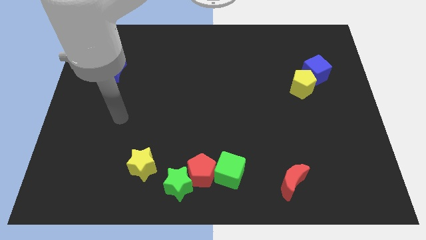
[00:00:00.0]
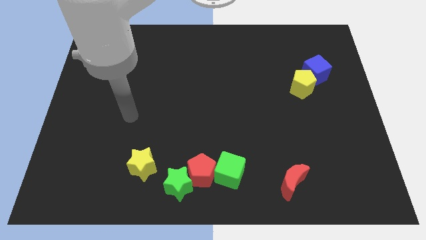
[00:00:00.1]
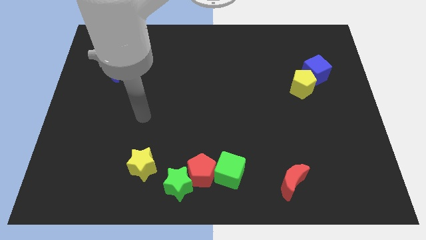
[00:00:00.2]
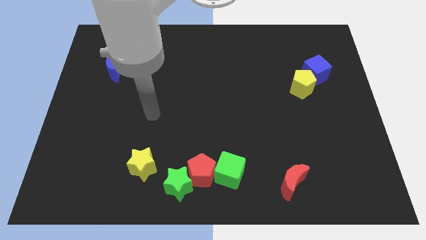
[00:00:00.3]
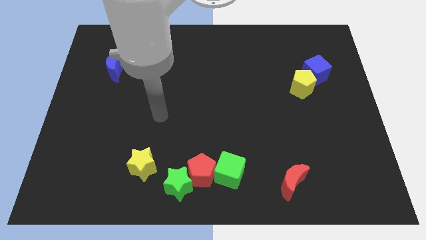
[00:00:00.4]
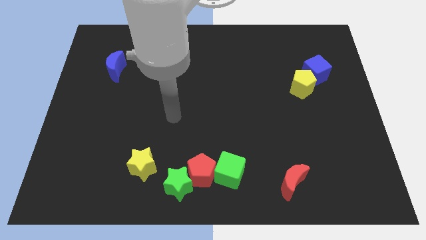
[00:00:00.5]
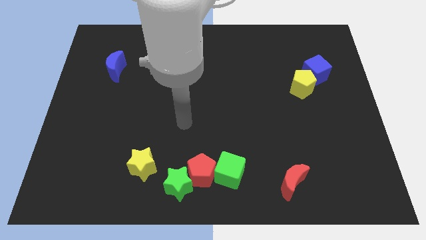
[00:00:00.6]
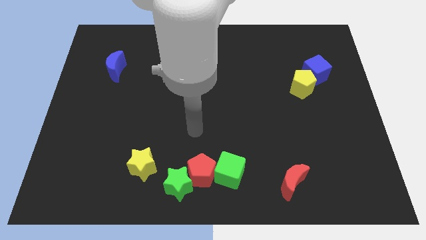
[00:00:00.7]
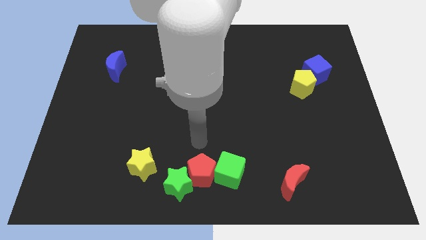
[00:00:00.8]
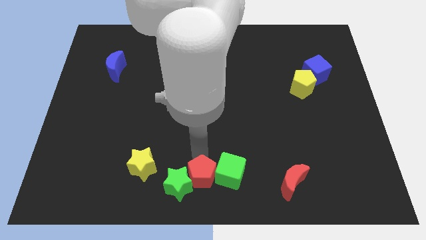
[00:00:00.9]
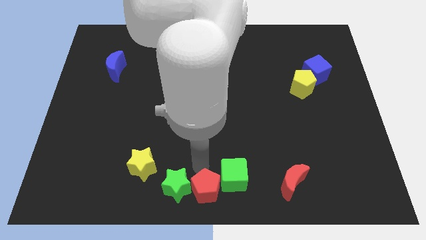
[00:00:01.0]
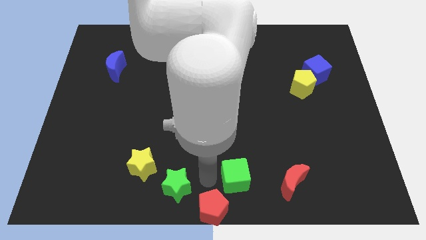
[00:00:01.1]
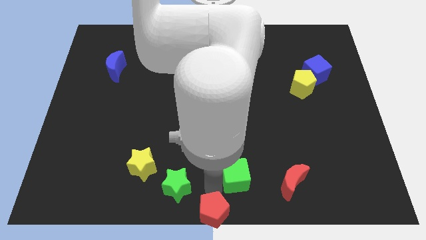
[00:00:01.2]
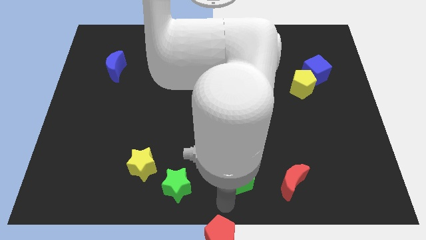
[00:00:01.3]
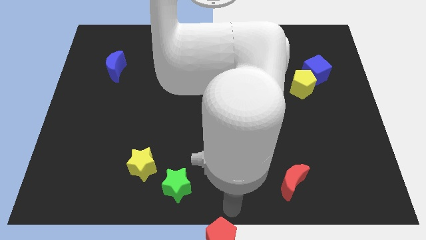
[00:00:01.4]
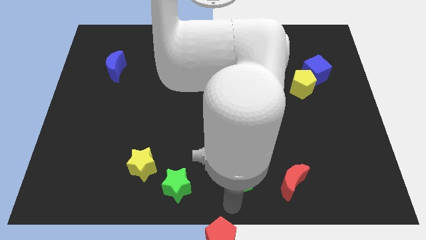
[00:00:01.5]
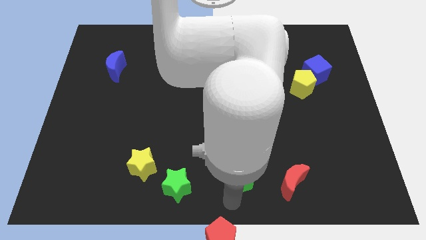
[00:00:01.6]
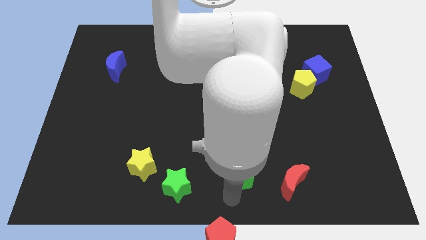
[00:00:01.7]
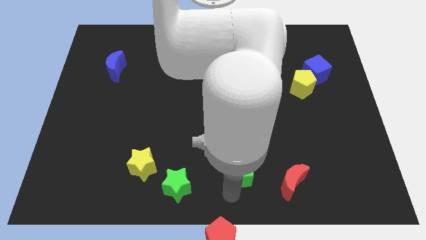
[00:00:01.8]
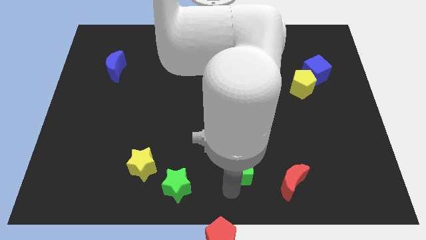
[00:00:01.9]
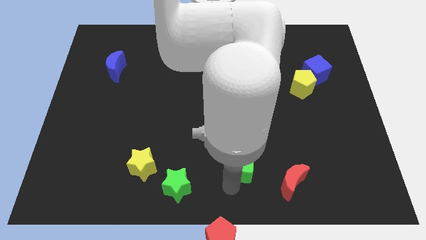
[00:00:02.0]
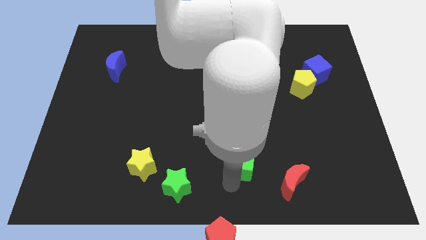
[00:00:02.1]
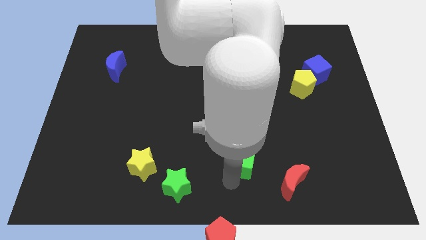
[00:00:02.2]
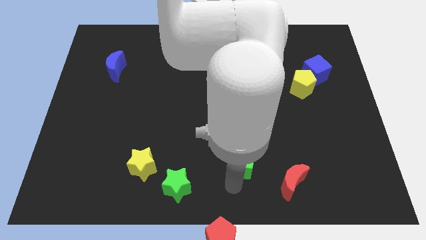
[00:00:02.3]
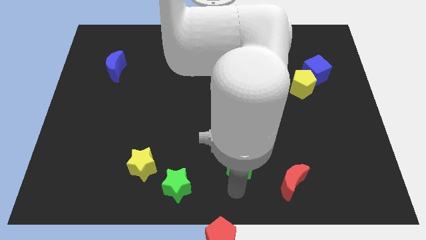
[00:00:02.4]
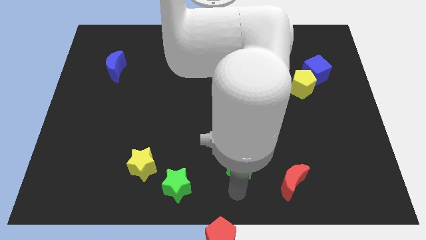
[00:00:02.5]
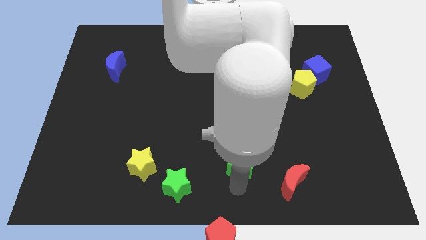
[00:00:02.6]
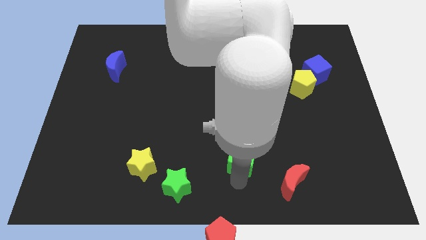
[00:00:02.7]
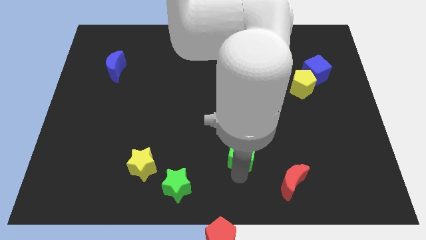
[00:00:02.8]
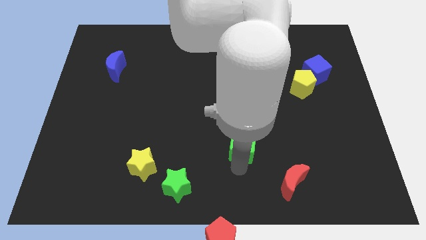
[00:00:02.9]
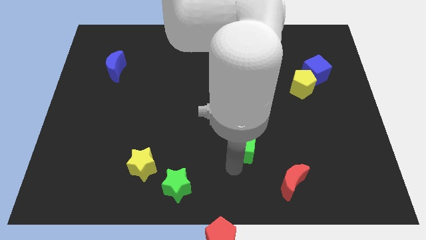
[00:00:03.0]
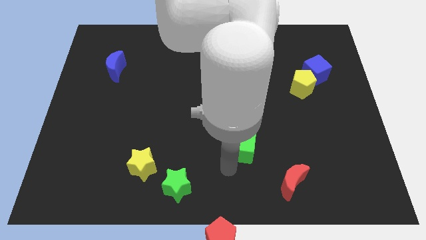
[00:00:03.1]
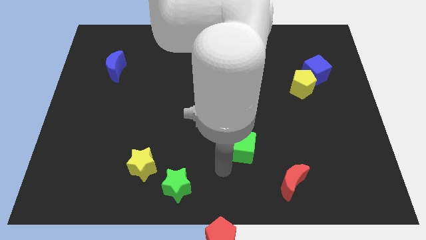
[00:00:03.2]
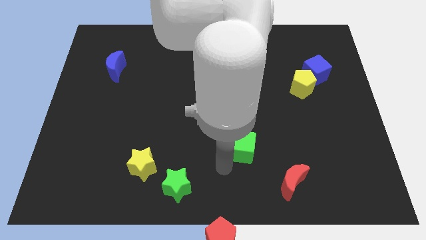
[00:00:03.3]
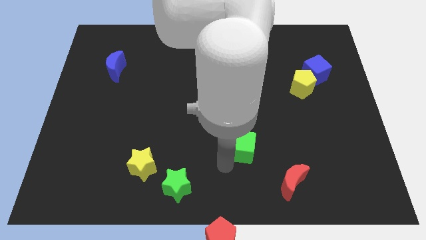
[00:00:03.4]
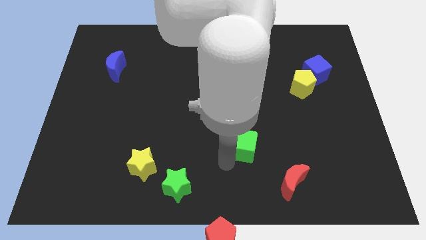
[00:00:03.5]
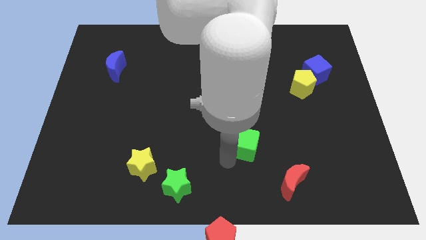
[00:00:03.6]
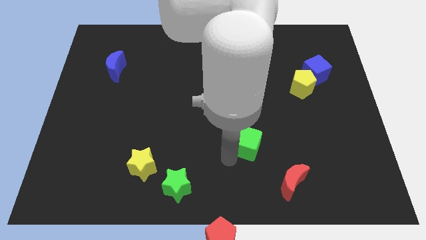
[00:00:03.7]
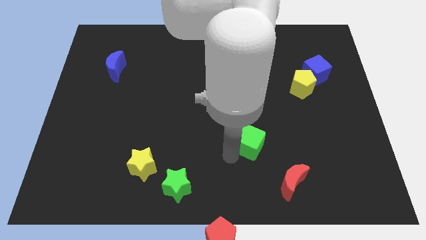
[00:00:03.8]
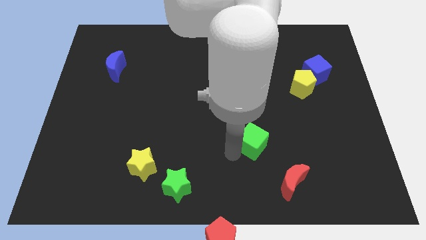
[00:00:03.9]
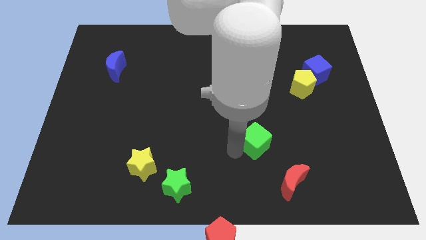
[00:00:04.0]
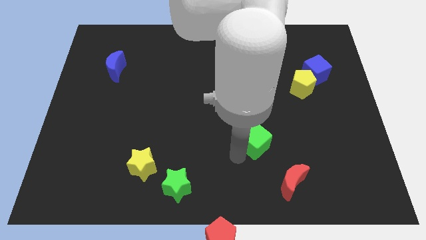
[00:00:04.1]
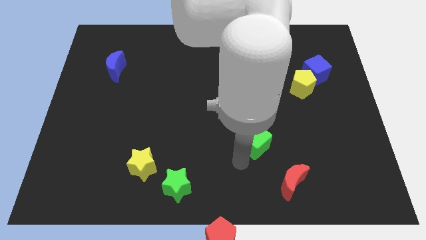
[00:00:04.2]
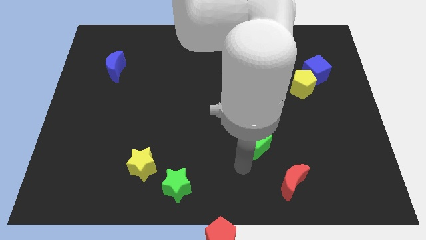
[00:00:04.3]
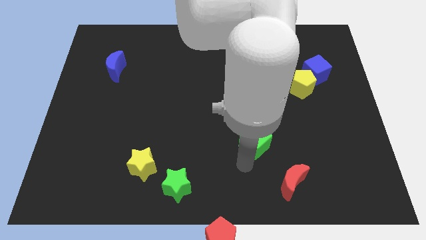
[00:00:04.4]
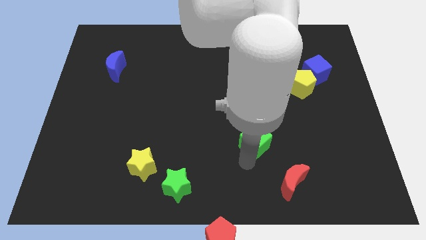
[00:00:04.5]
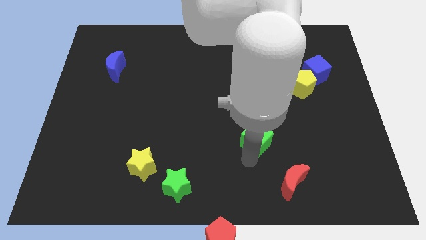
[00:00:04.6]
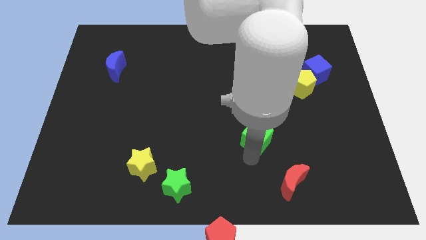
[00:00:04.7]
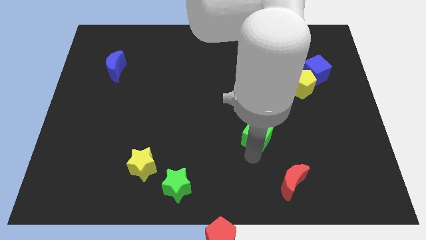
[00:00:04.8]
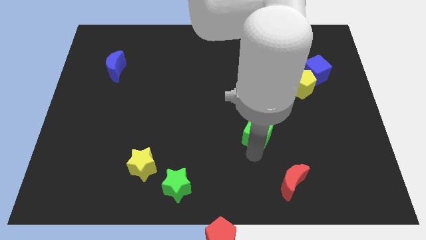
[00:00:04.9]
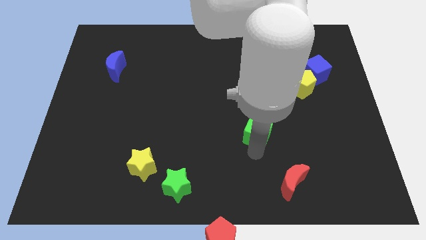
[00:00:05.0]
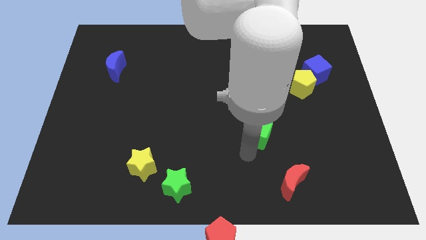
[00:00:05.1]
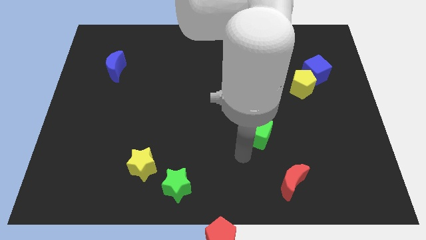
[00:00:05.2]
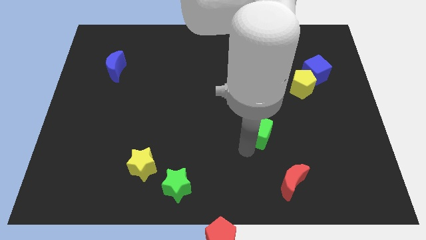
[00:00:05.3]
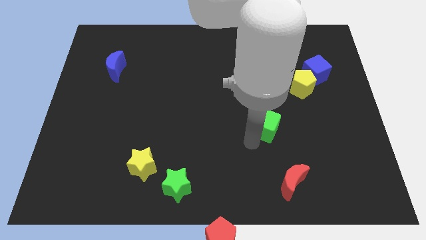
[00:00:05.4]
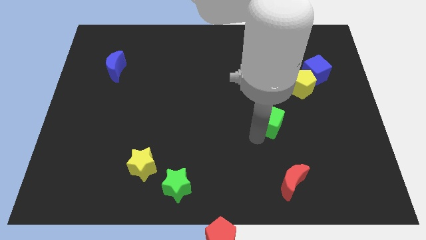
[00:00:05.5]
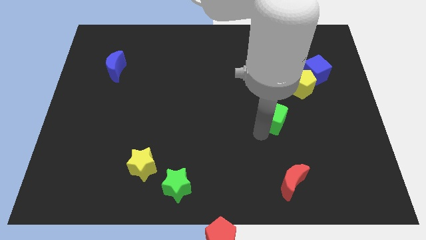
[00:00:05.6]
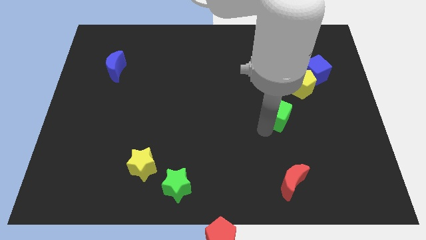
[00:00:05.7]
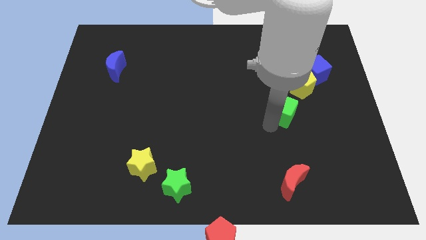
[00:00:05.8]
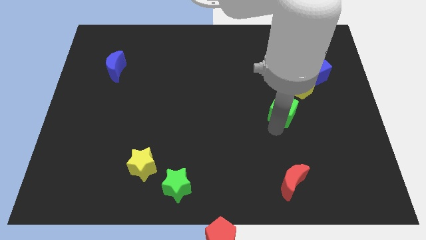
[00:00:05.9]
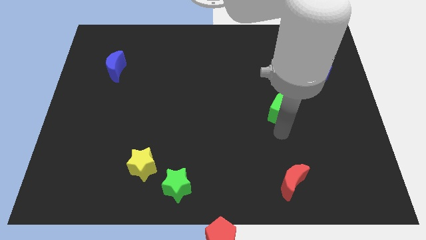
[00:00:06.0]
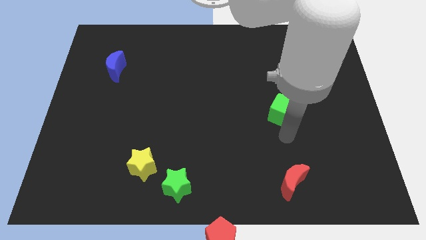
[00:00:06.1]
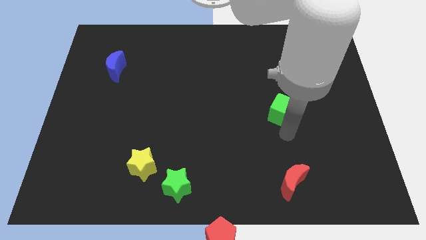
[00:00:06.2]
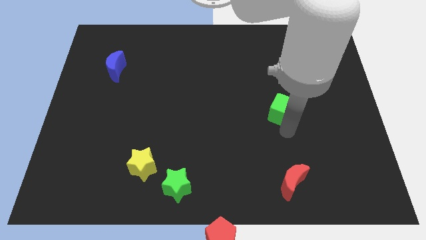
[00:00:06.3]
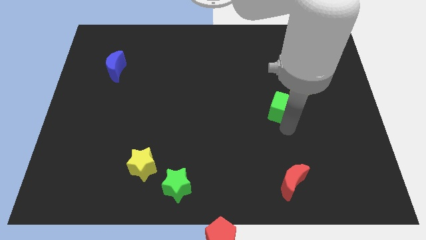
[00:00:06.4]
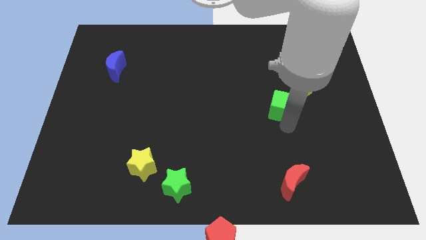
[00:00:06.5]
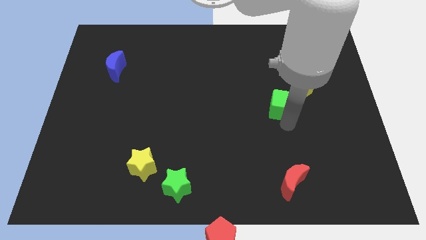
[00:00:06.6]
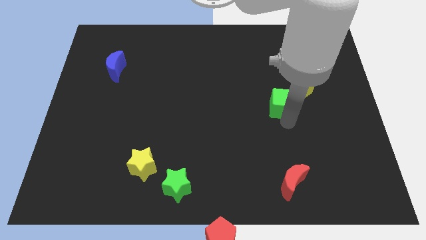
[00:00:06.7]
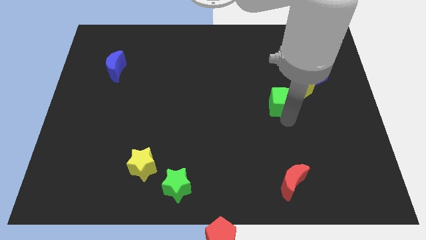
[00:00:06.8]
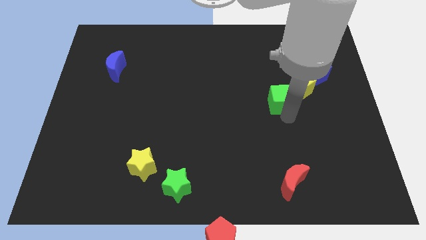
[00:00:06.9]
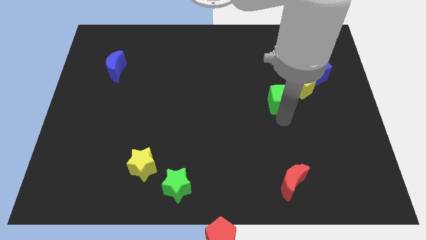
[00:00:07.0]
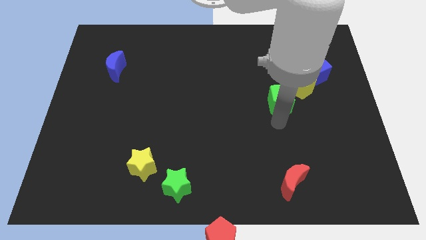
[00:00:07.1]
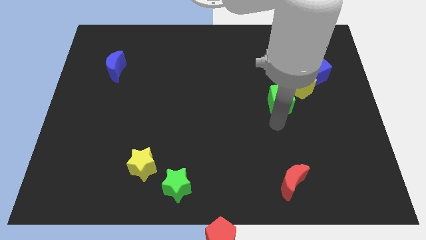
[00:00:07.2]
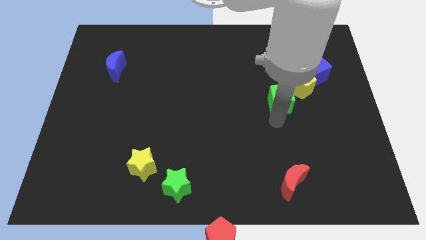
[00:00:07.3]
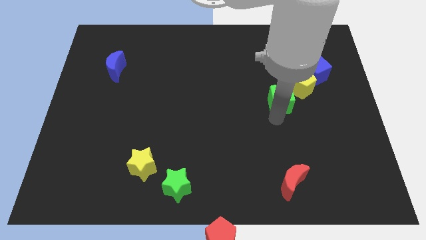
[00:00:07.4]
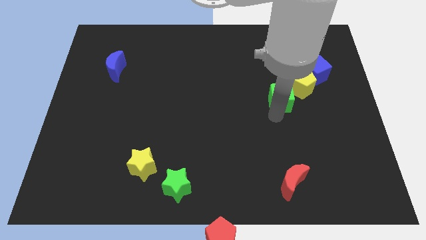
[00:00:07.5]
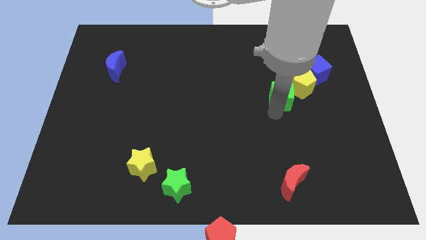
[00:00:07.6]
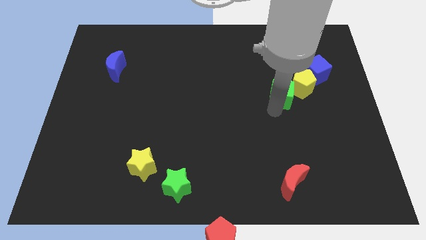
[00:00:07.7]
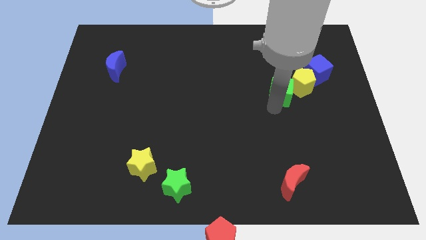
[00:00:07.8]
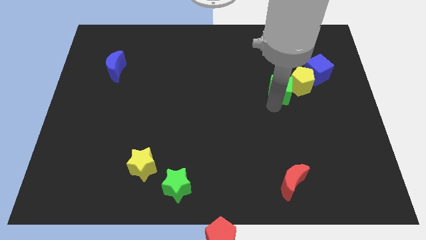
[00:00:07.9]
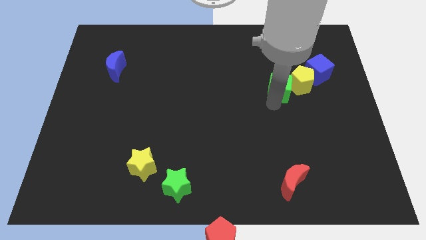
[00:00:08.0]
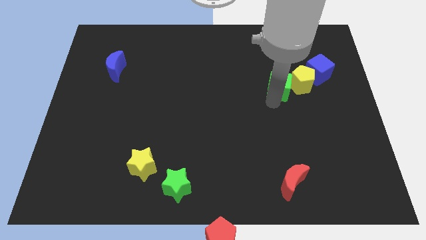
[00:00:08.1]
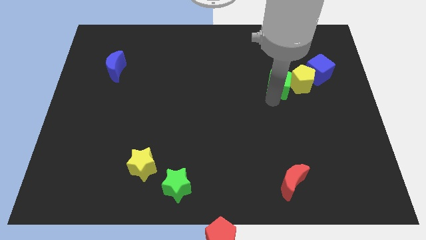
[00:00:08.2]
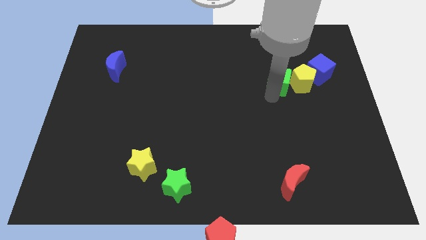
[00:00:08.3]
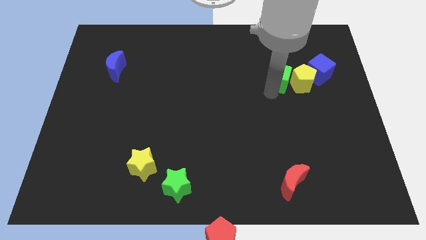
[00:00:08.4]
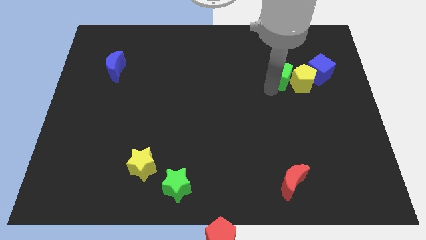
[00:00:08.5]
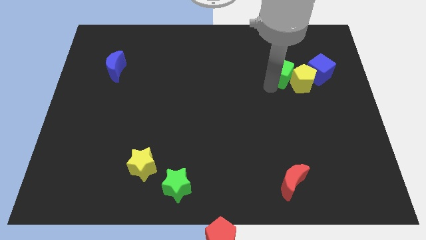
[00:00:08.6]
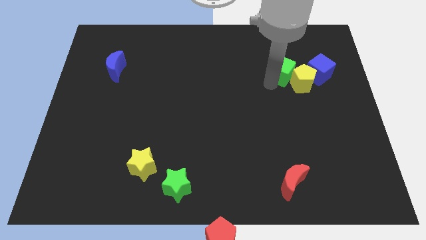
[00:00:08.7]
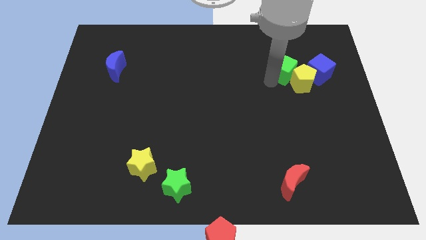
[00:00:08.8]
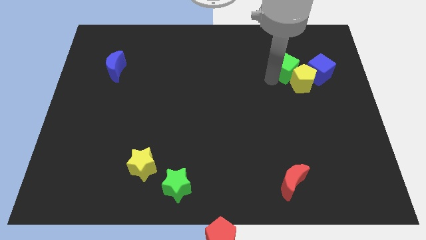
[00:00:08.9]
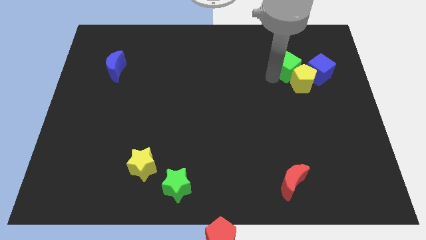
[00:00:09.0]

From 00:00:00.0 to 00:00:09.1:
slide the green cube to the top left of the blue cube
